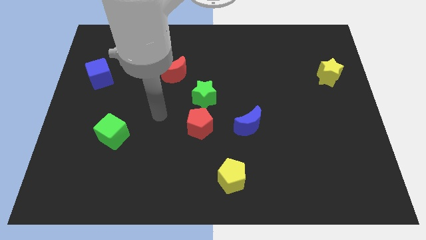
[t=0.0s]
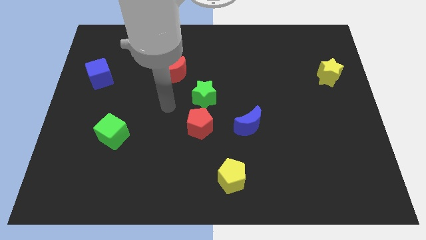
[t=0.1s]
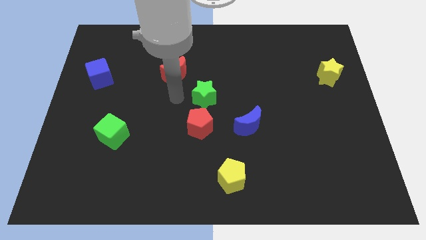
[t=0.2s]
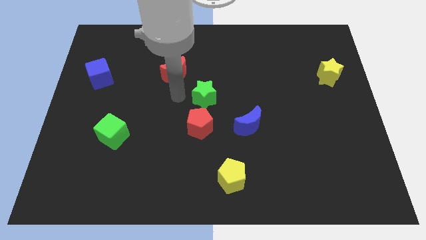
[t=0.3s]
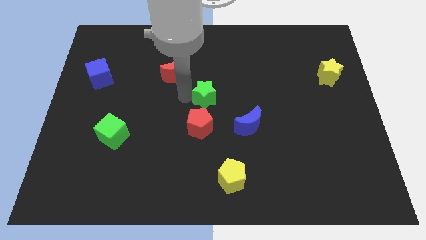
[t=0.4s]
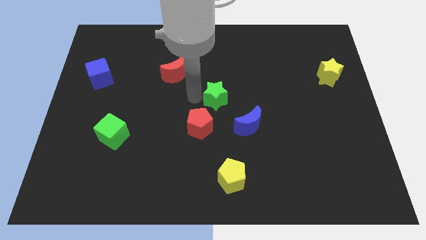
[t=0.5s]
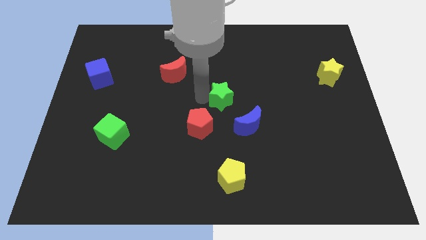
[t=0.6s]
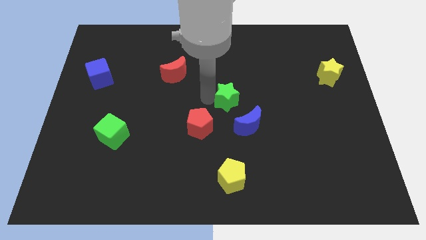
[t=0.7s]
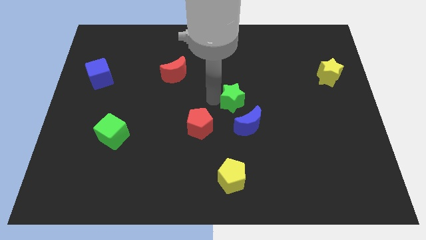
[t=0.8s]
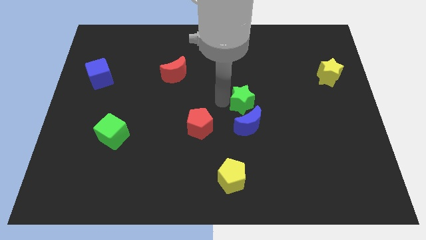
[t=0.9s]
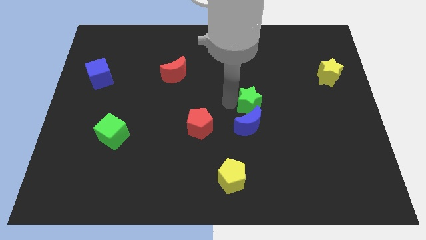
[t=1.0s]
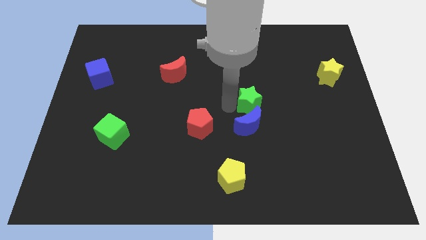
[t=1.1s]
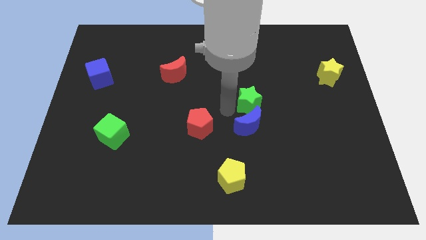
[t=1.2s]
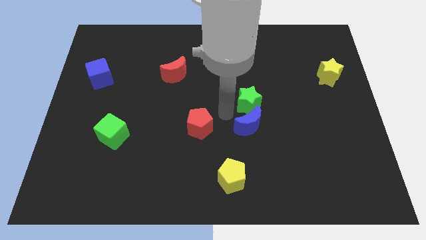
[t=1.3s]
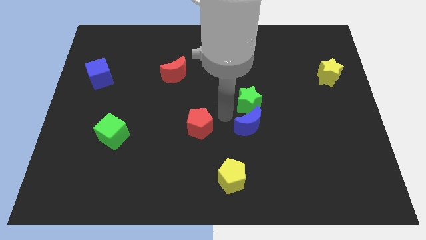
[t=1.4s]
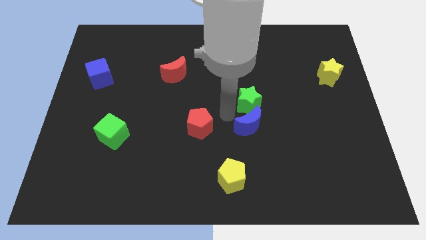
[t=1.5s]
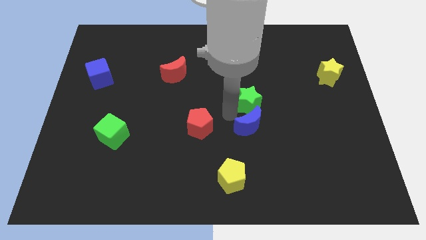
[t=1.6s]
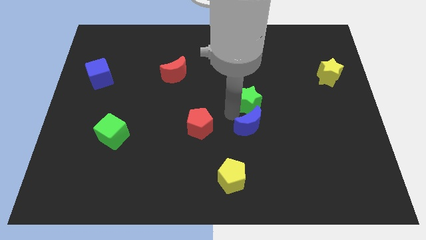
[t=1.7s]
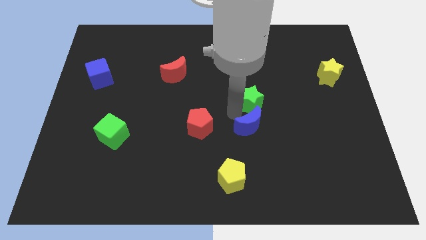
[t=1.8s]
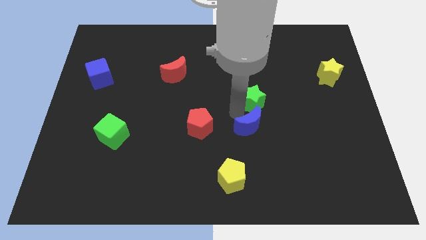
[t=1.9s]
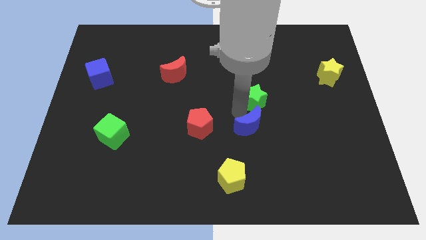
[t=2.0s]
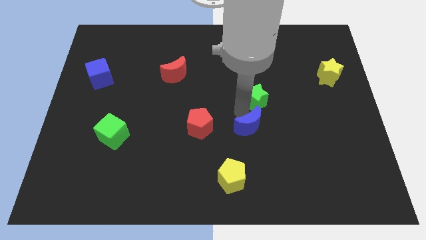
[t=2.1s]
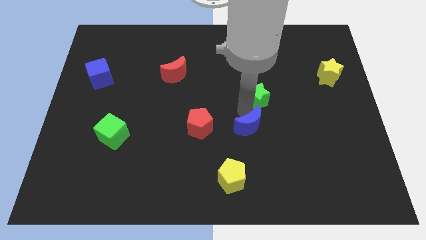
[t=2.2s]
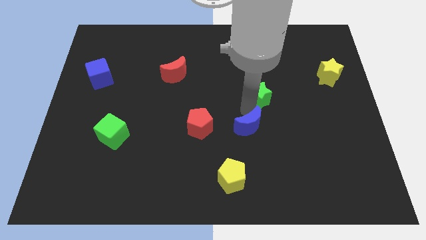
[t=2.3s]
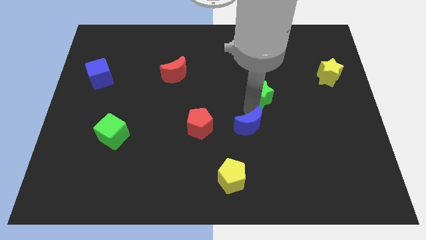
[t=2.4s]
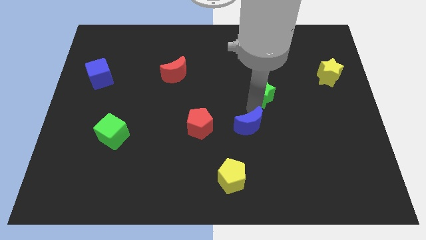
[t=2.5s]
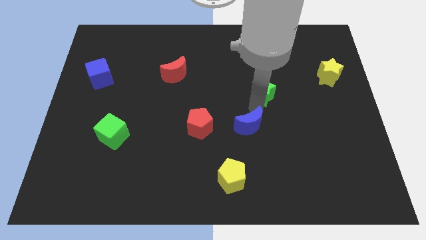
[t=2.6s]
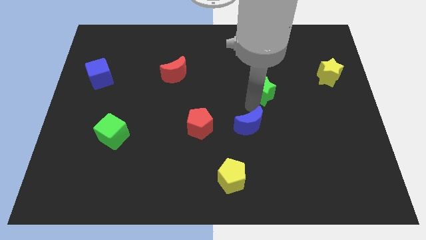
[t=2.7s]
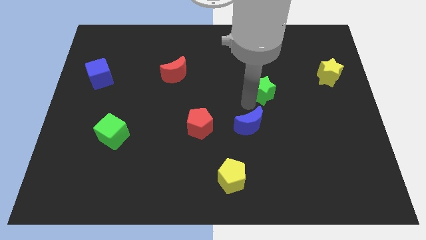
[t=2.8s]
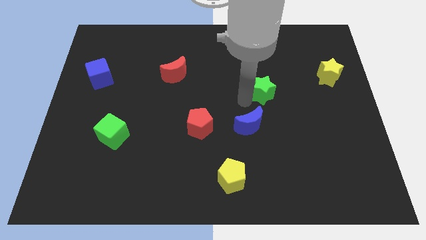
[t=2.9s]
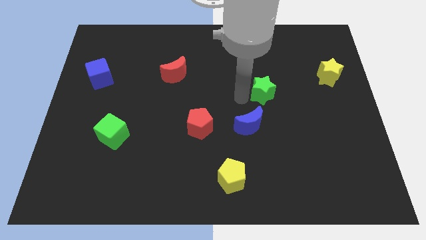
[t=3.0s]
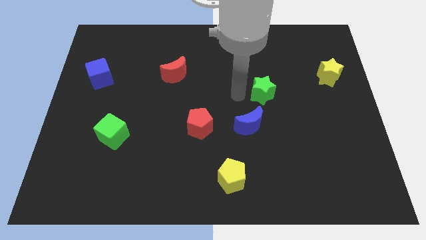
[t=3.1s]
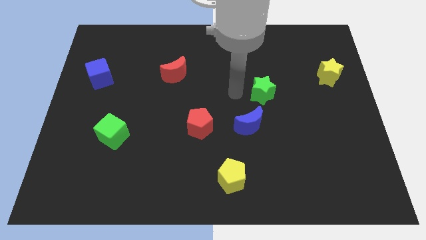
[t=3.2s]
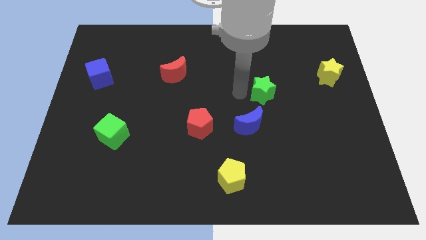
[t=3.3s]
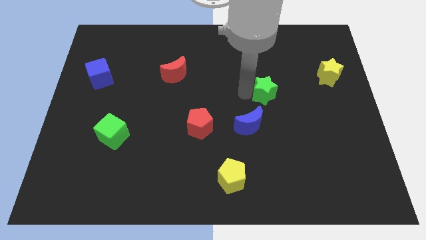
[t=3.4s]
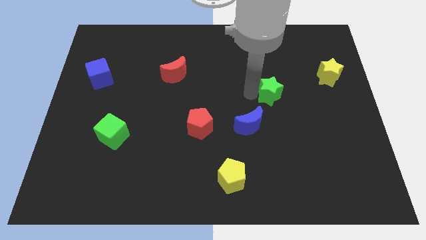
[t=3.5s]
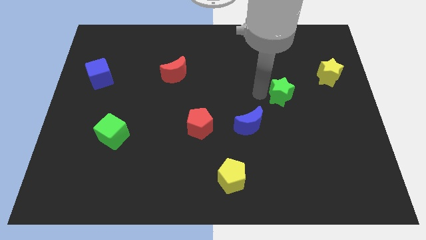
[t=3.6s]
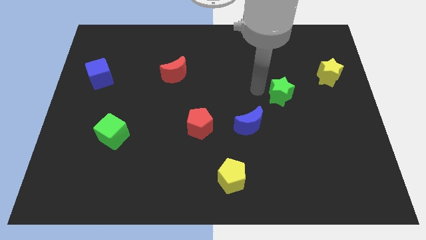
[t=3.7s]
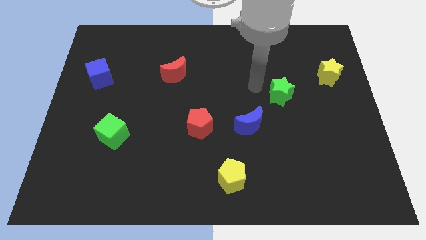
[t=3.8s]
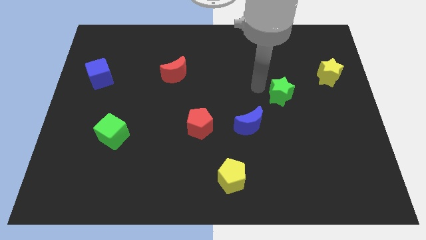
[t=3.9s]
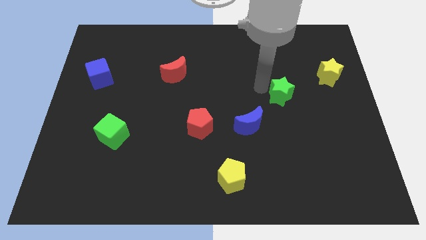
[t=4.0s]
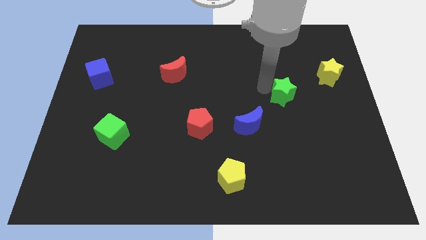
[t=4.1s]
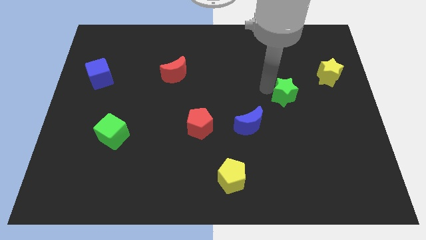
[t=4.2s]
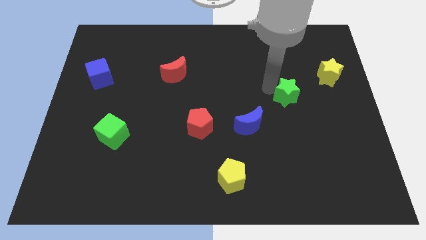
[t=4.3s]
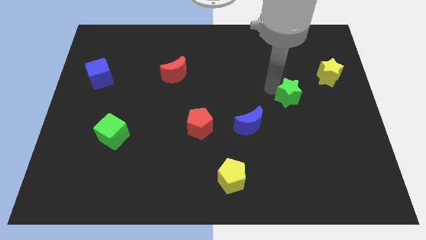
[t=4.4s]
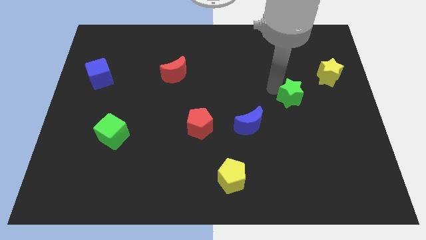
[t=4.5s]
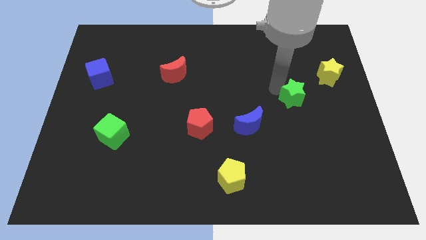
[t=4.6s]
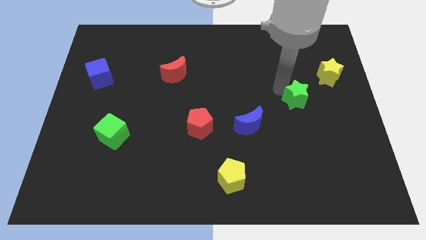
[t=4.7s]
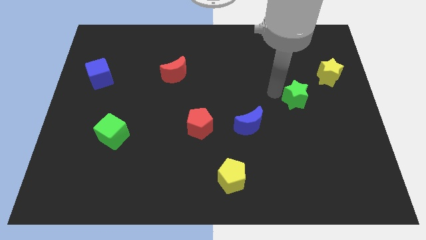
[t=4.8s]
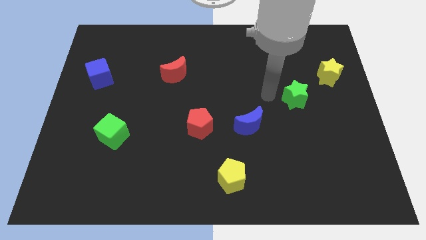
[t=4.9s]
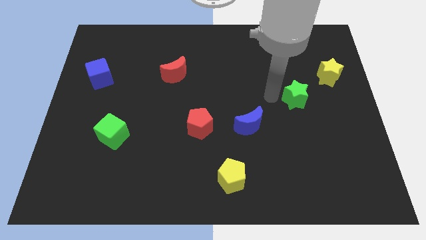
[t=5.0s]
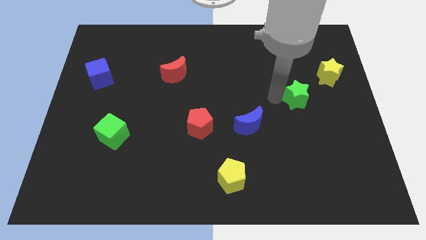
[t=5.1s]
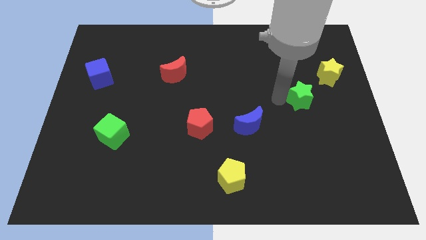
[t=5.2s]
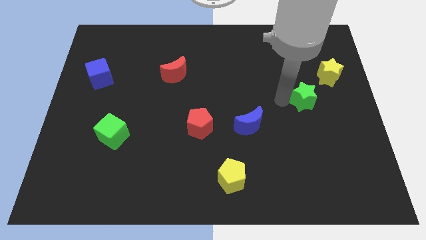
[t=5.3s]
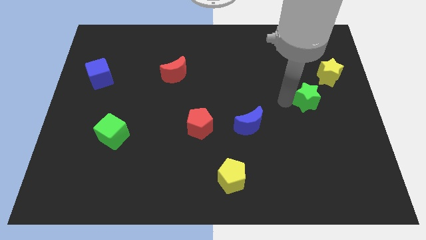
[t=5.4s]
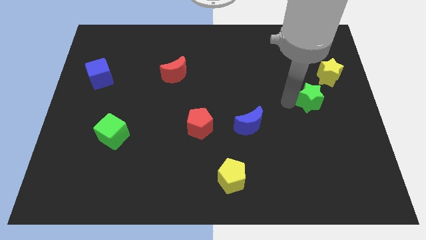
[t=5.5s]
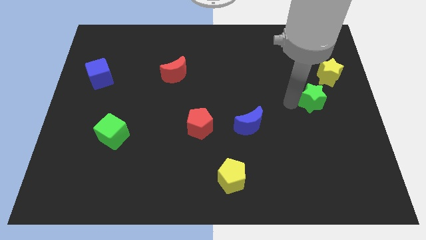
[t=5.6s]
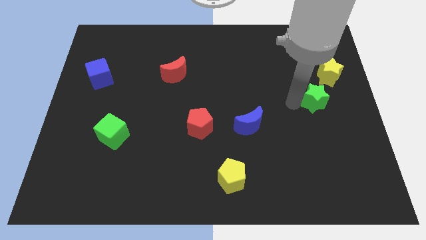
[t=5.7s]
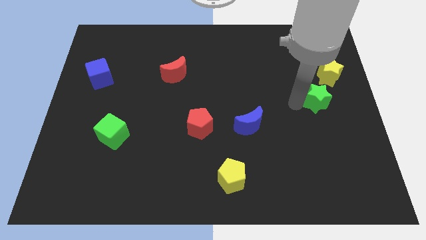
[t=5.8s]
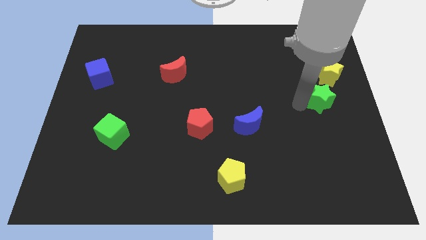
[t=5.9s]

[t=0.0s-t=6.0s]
slide the green star to the right side
